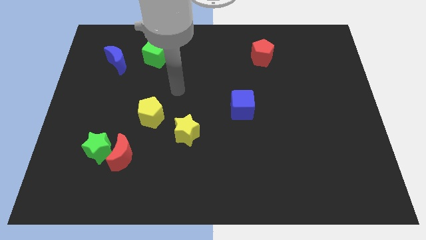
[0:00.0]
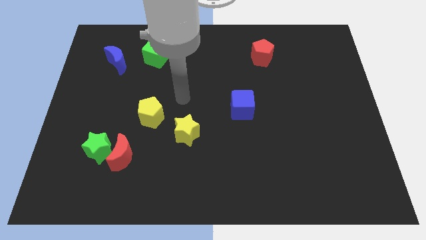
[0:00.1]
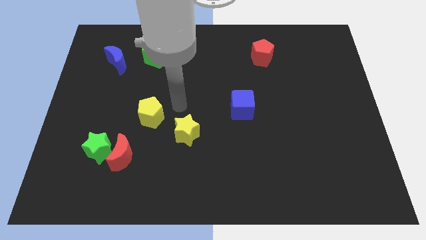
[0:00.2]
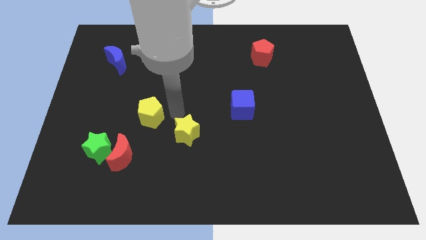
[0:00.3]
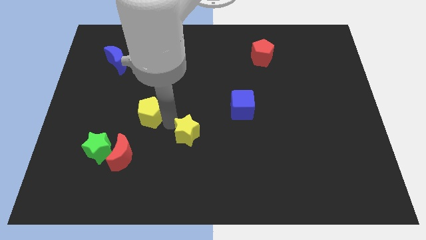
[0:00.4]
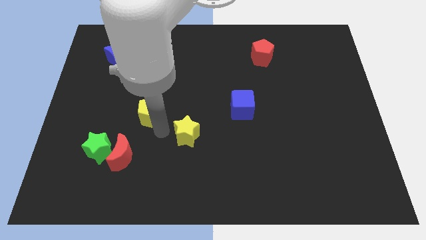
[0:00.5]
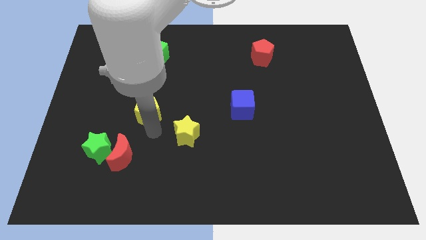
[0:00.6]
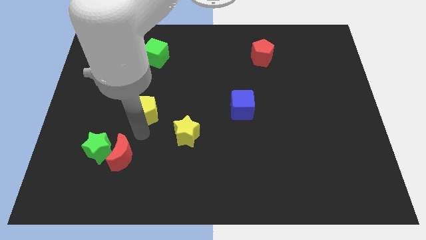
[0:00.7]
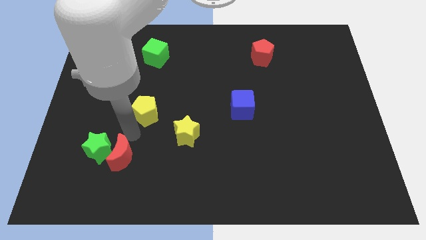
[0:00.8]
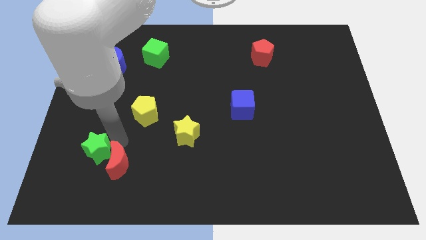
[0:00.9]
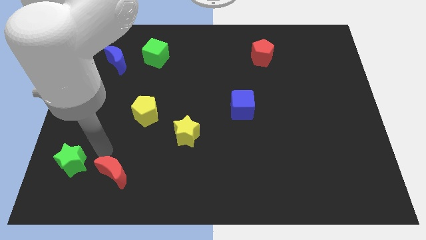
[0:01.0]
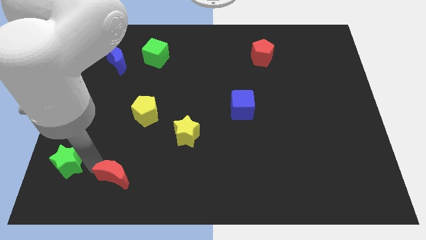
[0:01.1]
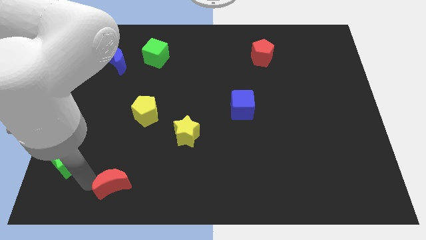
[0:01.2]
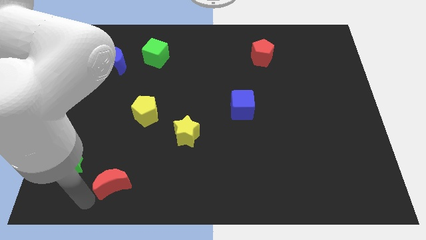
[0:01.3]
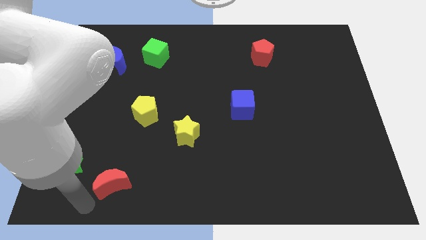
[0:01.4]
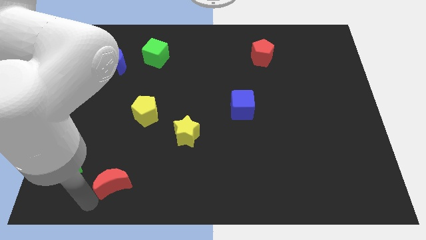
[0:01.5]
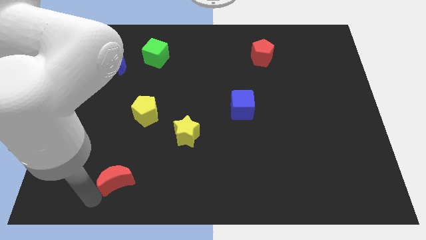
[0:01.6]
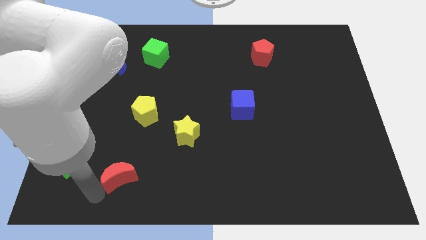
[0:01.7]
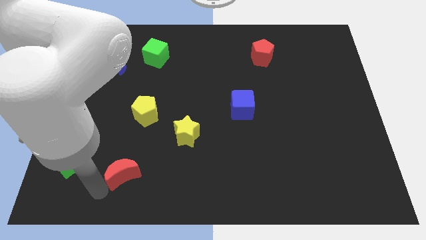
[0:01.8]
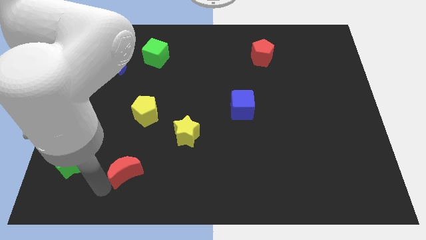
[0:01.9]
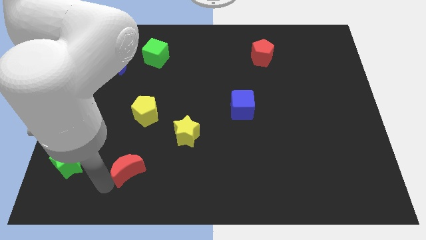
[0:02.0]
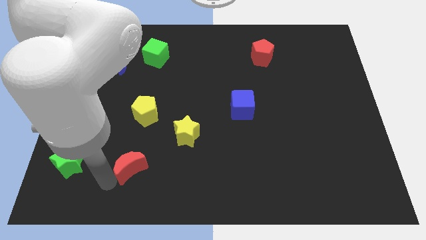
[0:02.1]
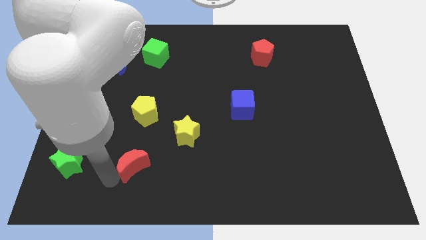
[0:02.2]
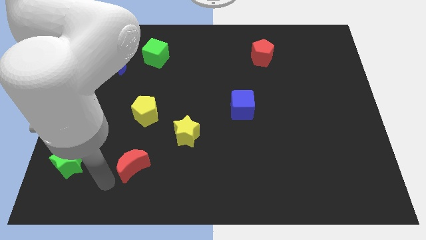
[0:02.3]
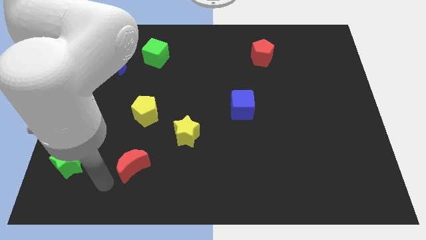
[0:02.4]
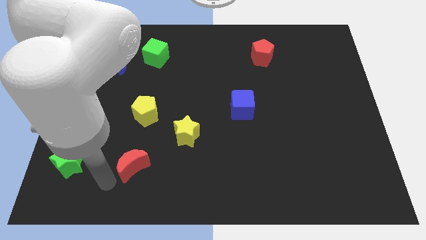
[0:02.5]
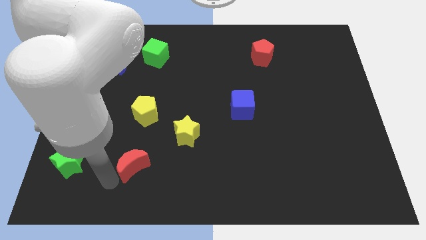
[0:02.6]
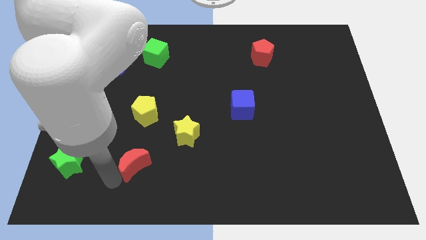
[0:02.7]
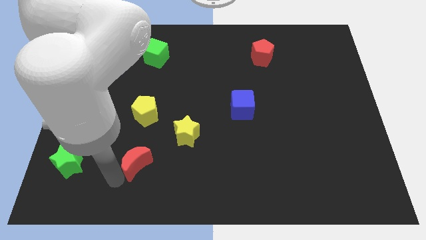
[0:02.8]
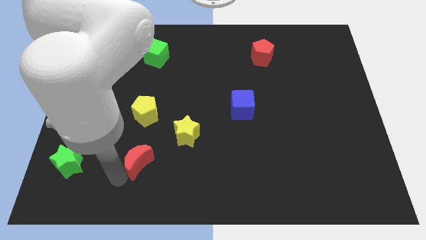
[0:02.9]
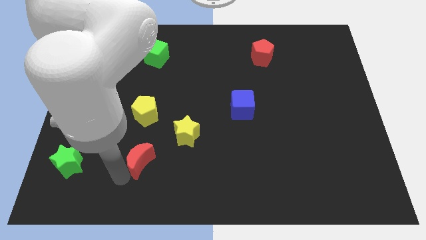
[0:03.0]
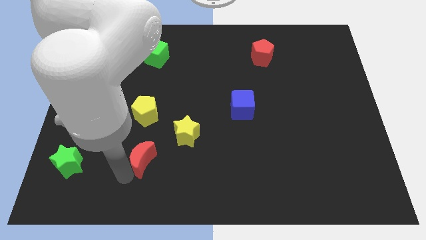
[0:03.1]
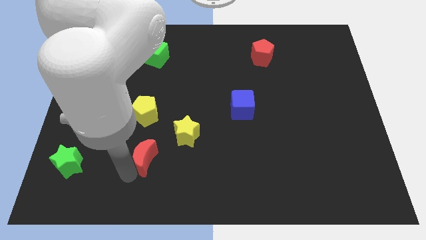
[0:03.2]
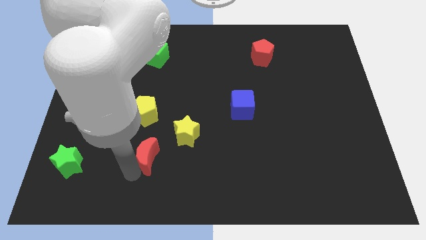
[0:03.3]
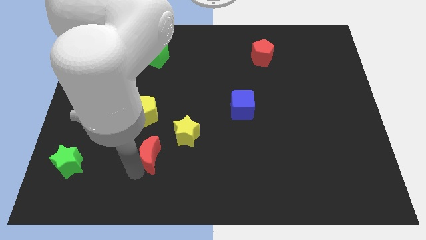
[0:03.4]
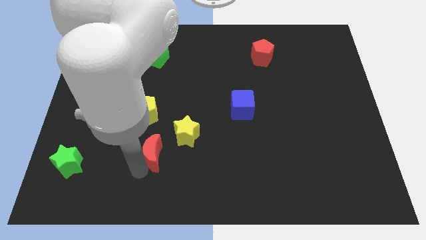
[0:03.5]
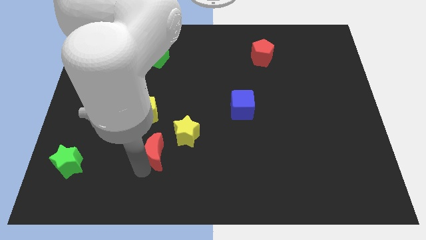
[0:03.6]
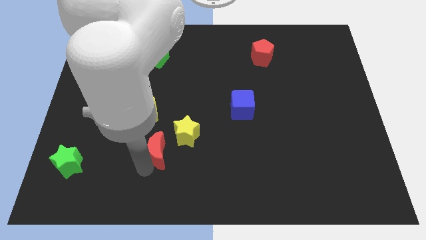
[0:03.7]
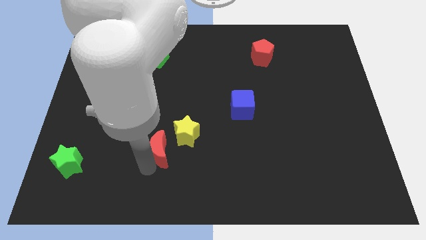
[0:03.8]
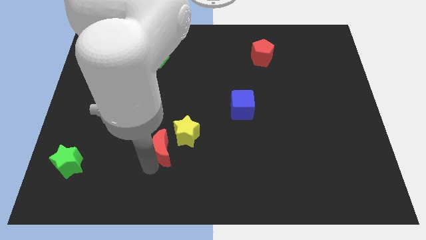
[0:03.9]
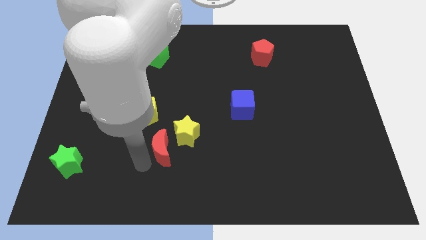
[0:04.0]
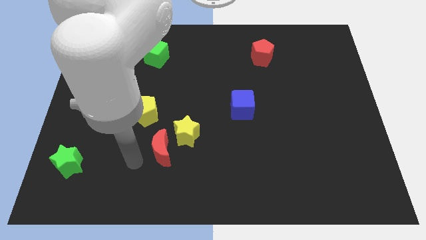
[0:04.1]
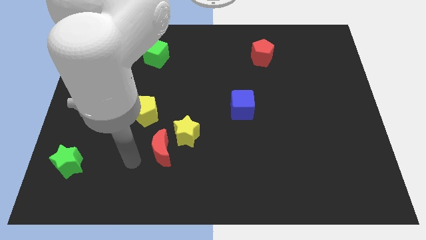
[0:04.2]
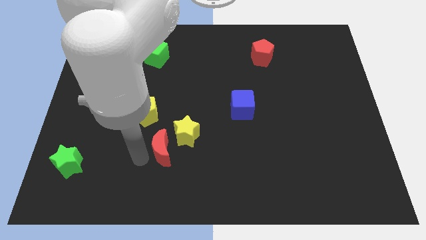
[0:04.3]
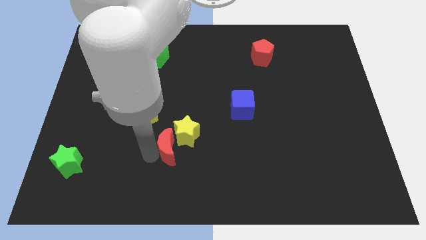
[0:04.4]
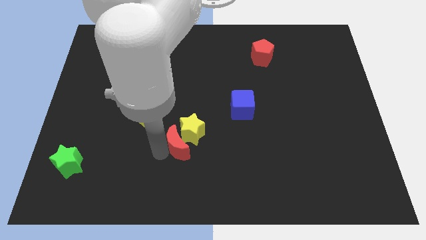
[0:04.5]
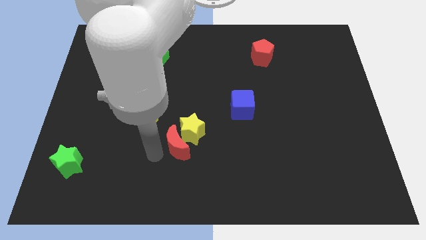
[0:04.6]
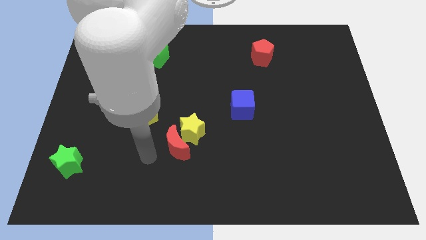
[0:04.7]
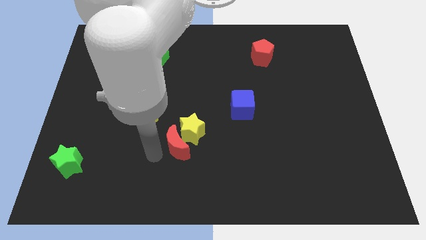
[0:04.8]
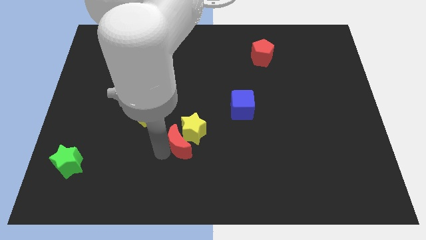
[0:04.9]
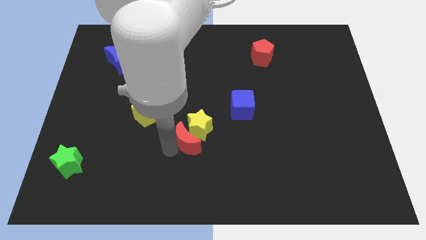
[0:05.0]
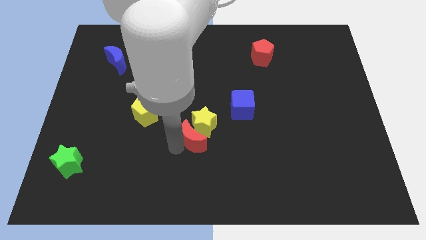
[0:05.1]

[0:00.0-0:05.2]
move the red moon to the middle

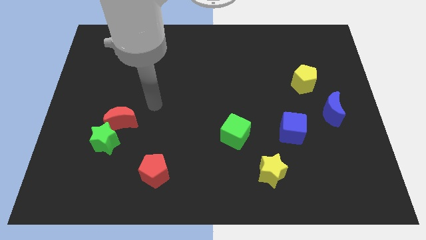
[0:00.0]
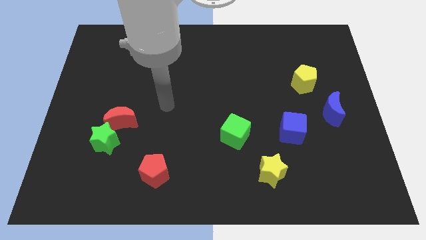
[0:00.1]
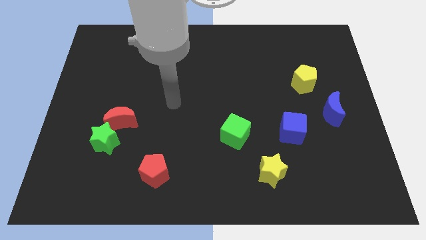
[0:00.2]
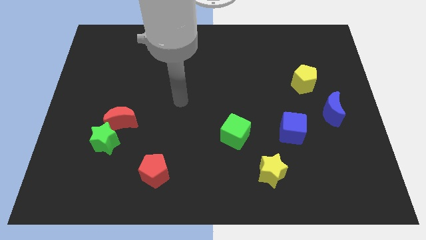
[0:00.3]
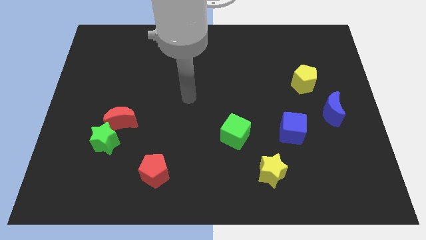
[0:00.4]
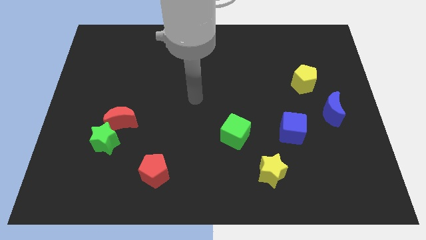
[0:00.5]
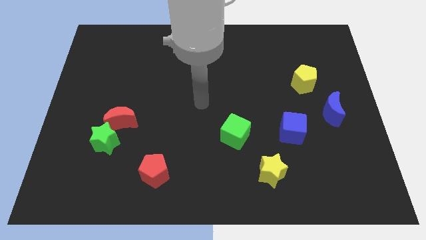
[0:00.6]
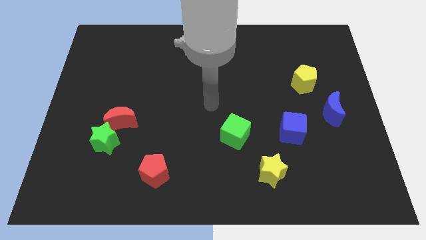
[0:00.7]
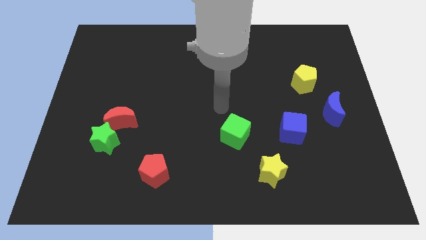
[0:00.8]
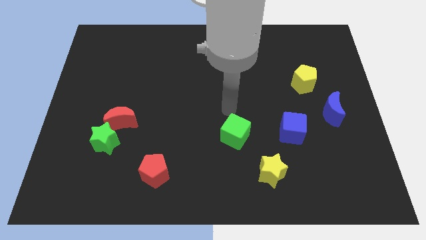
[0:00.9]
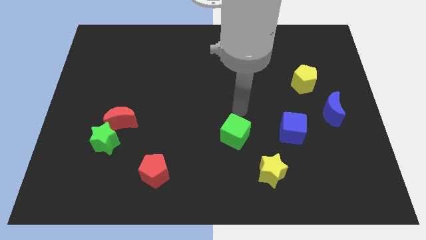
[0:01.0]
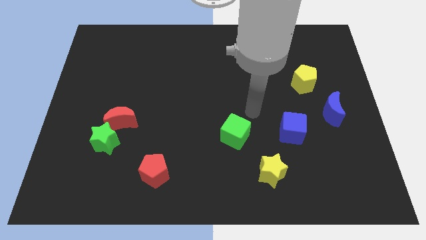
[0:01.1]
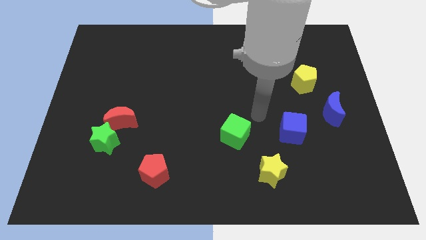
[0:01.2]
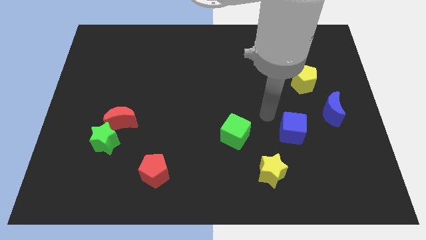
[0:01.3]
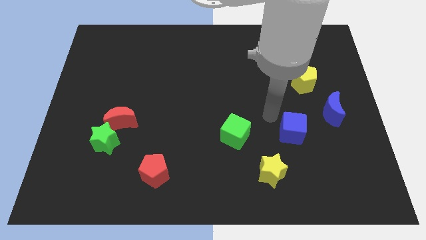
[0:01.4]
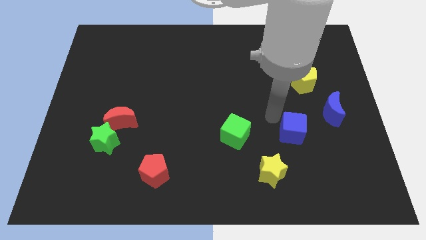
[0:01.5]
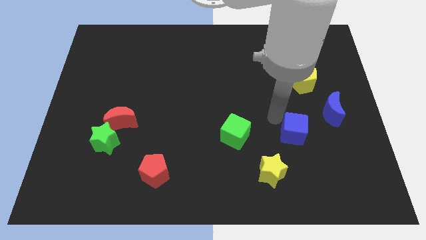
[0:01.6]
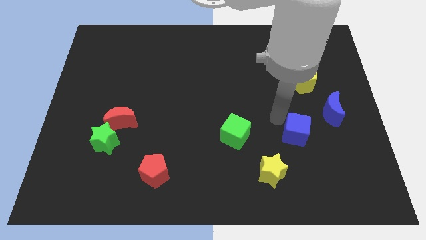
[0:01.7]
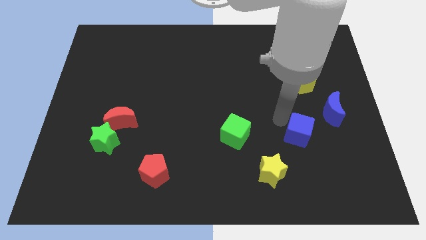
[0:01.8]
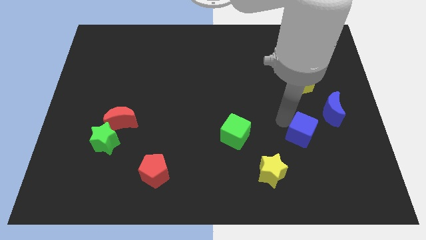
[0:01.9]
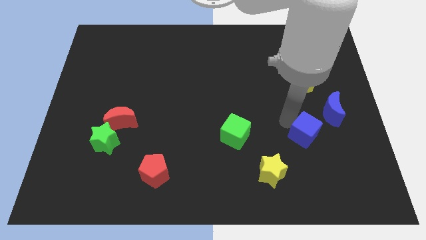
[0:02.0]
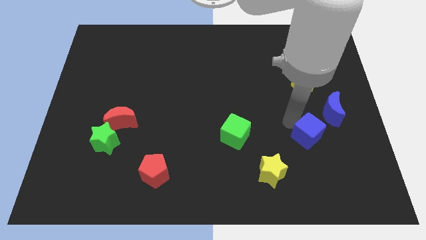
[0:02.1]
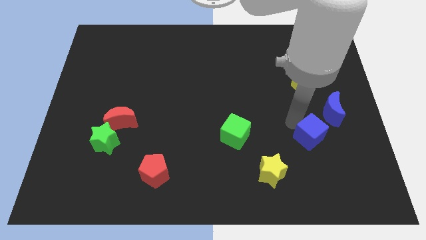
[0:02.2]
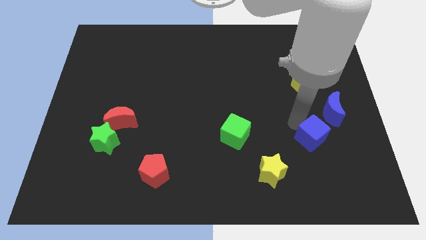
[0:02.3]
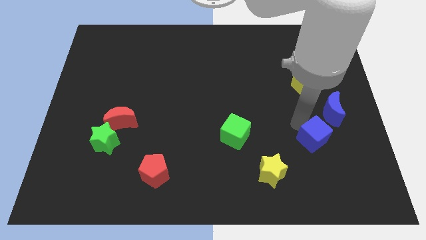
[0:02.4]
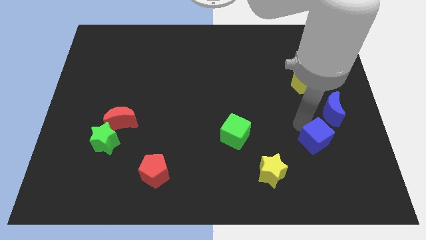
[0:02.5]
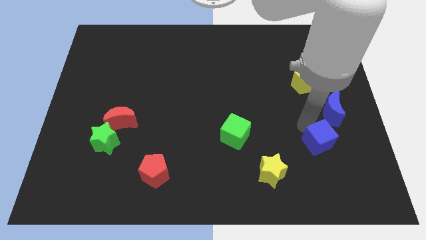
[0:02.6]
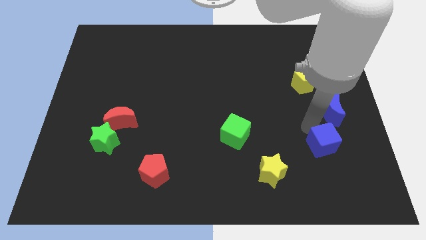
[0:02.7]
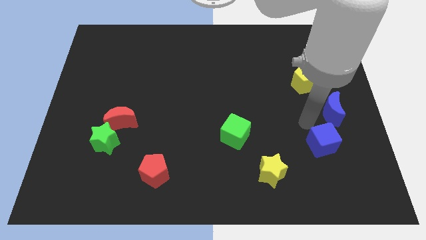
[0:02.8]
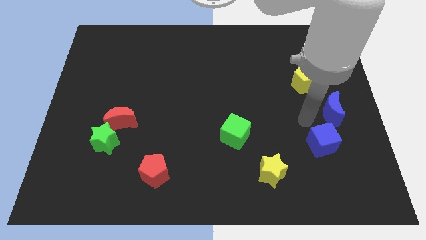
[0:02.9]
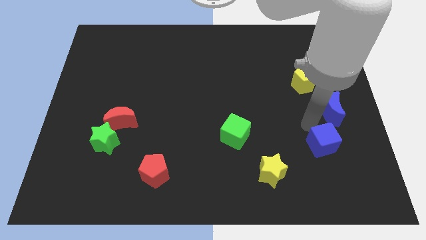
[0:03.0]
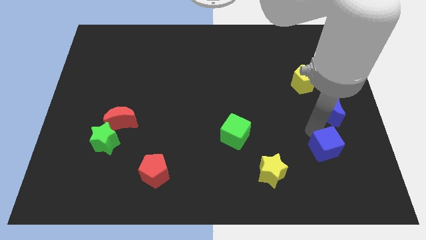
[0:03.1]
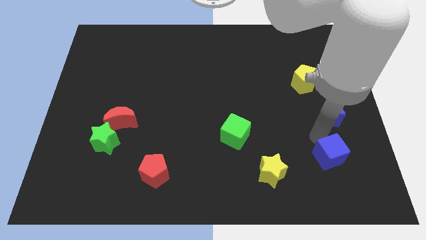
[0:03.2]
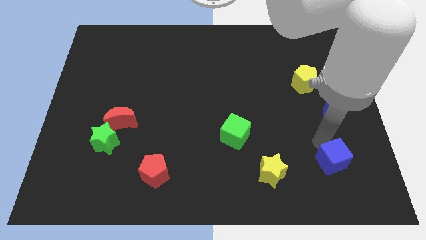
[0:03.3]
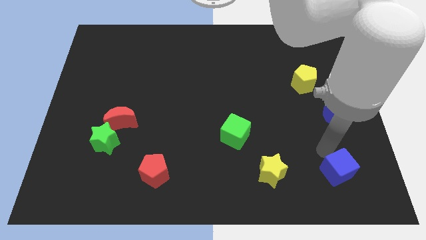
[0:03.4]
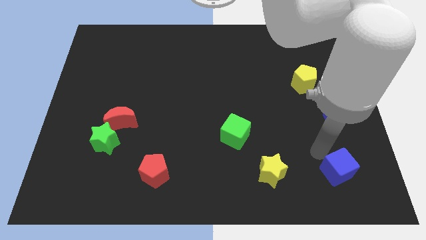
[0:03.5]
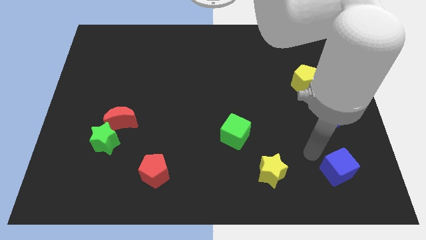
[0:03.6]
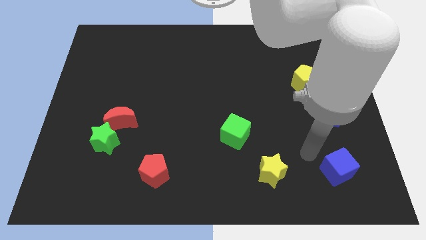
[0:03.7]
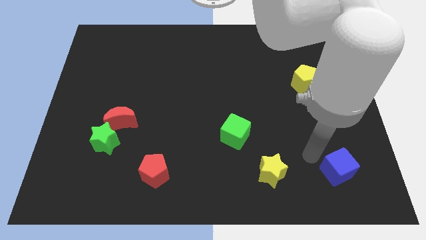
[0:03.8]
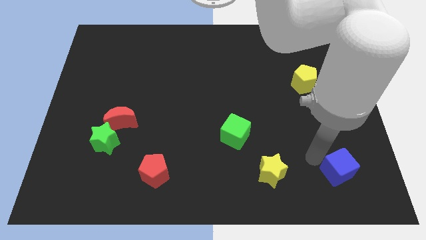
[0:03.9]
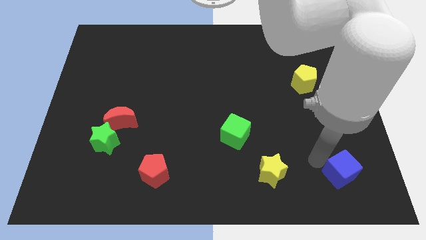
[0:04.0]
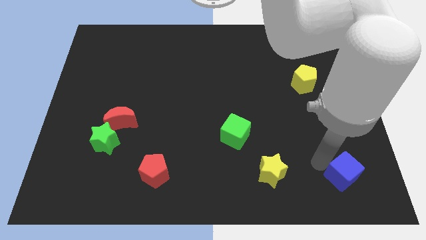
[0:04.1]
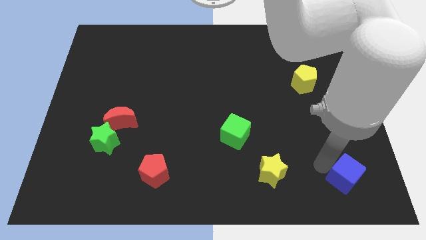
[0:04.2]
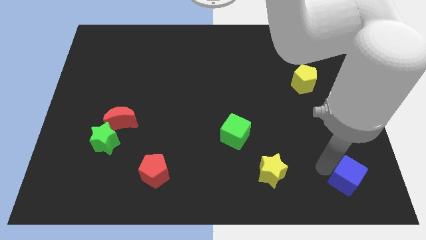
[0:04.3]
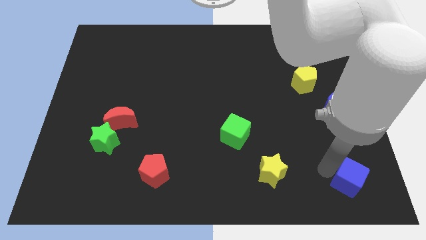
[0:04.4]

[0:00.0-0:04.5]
slide the blue cube to the lower right corner
